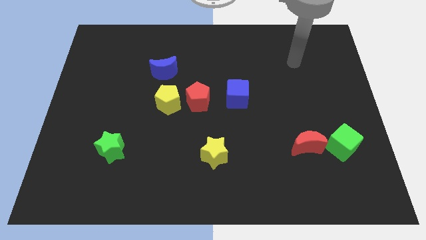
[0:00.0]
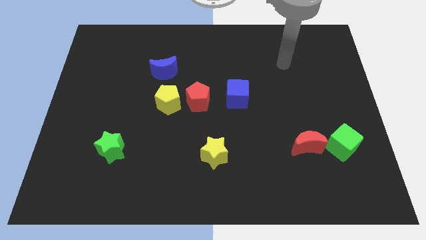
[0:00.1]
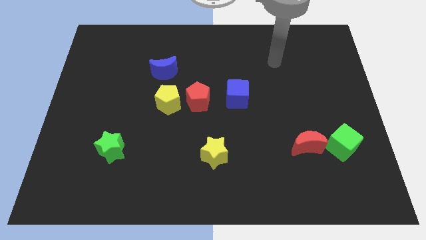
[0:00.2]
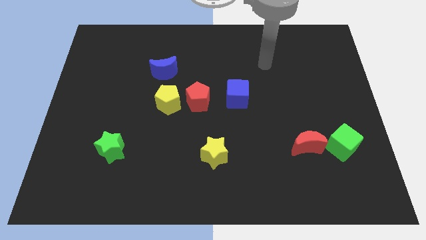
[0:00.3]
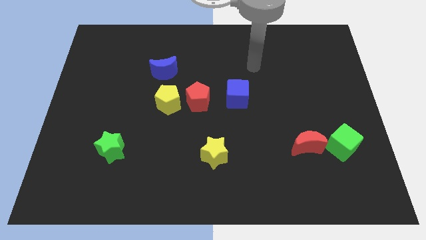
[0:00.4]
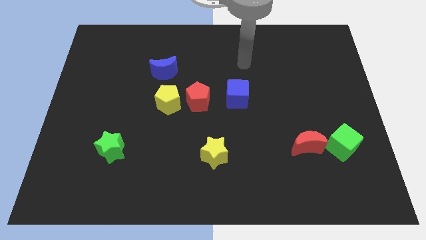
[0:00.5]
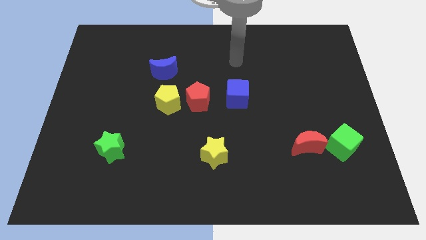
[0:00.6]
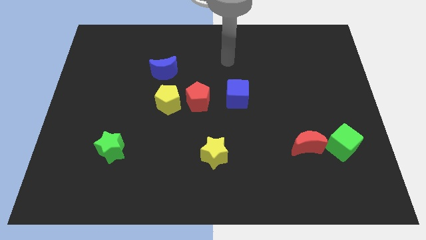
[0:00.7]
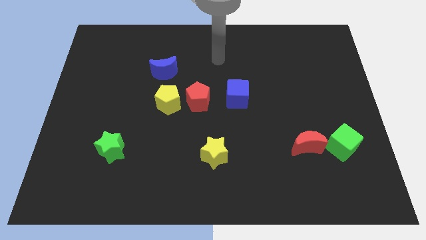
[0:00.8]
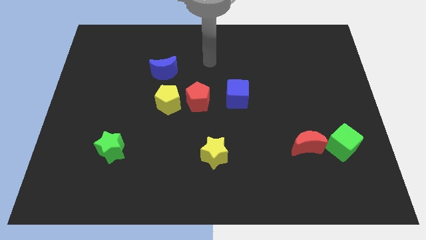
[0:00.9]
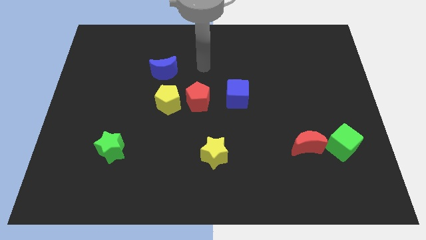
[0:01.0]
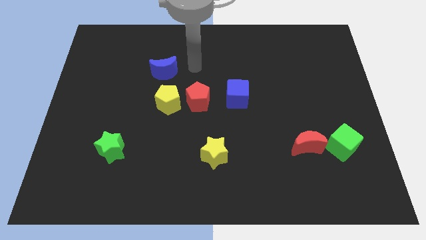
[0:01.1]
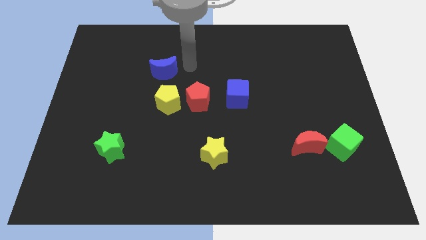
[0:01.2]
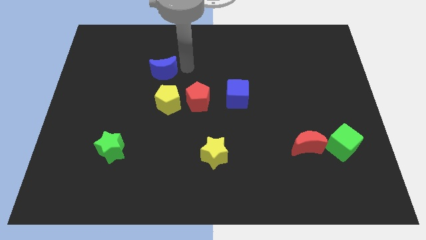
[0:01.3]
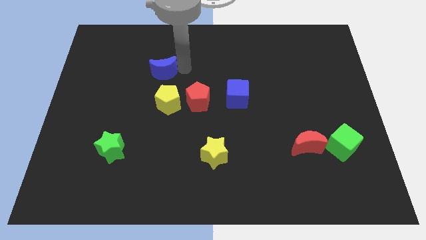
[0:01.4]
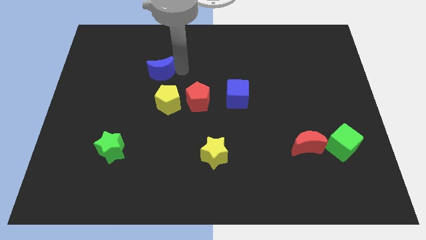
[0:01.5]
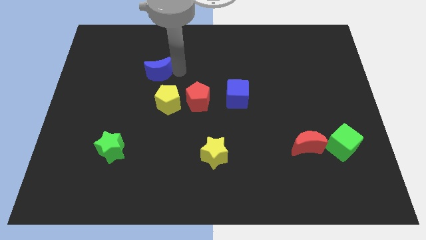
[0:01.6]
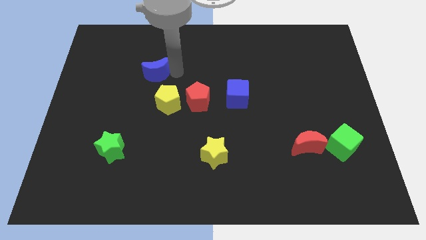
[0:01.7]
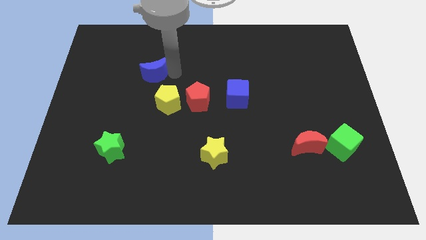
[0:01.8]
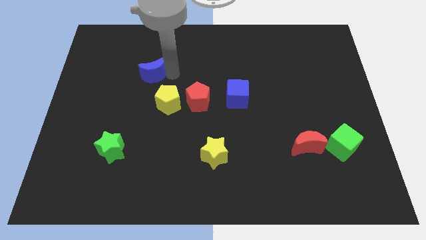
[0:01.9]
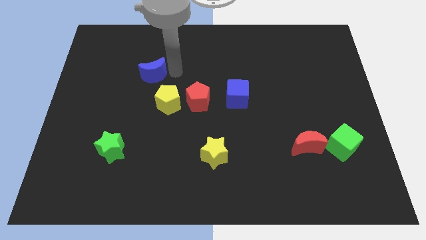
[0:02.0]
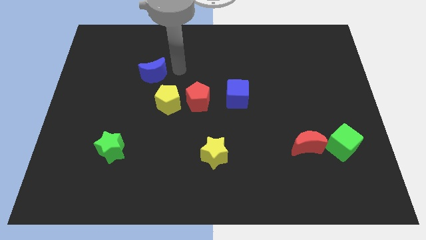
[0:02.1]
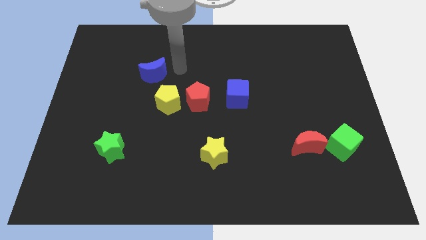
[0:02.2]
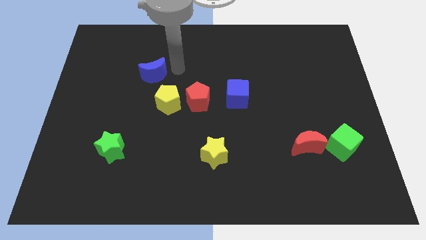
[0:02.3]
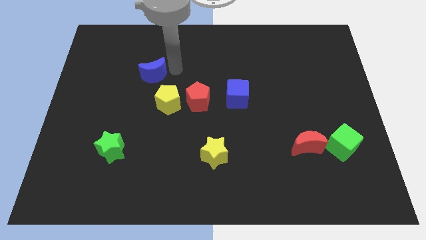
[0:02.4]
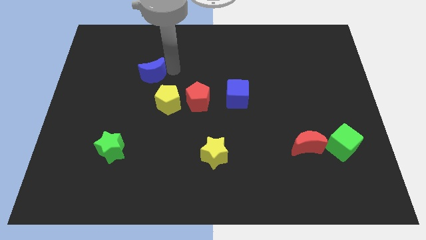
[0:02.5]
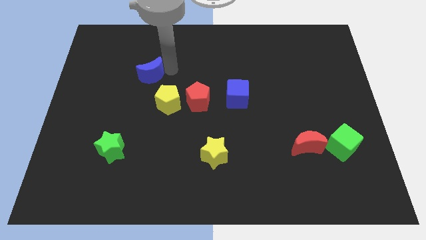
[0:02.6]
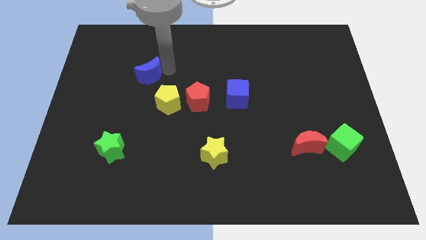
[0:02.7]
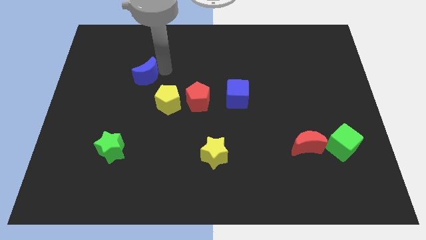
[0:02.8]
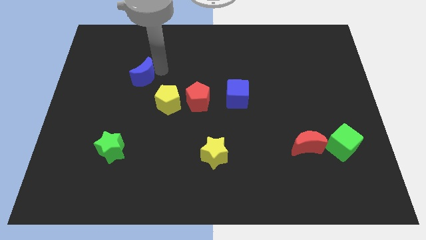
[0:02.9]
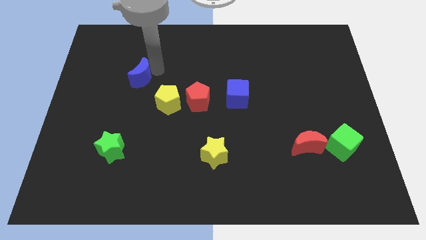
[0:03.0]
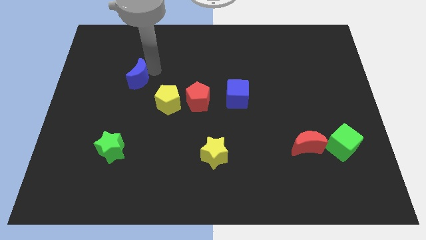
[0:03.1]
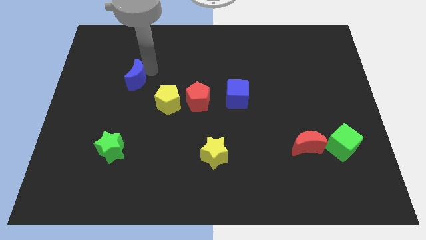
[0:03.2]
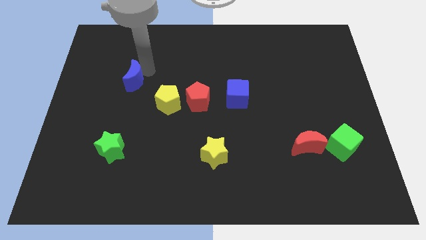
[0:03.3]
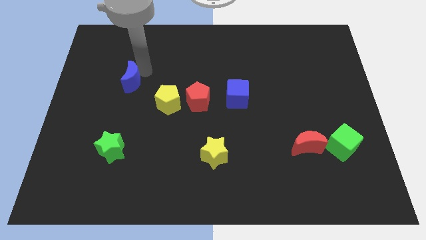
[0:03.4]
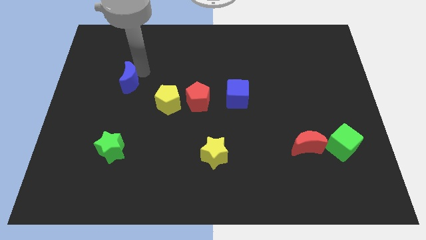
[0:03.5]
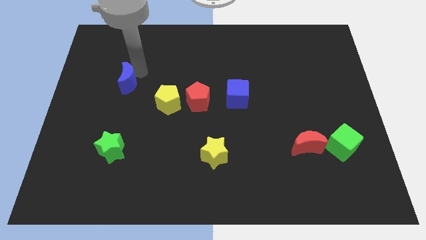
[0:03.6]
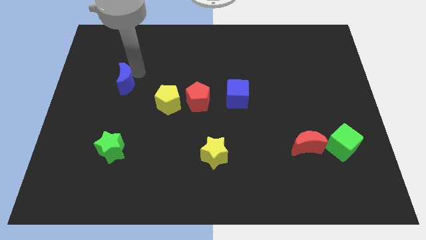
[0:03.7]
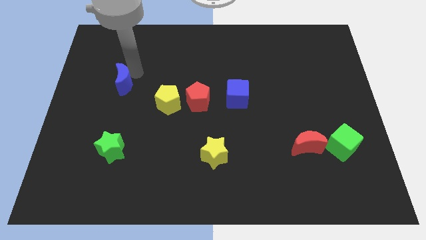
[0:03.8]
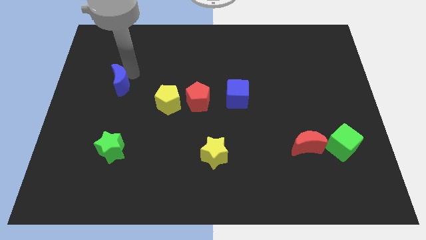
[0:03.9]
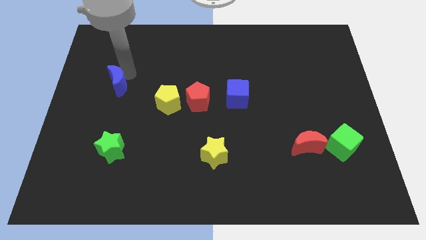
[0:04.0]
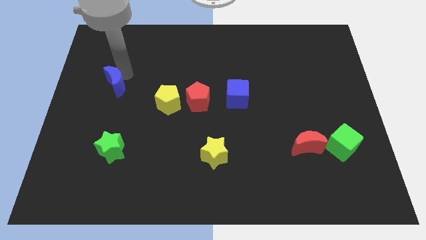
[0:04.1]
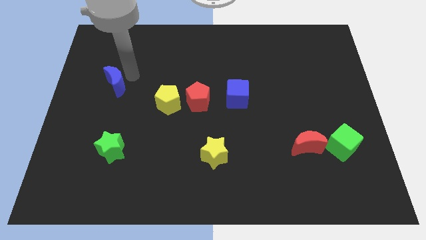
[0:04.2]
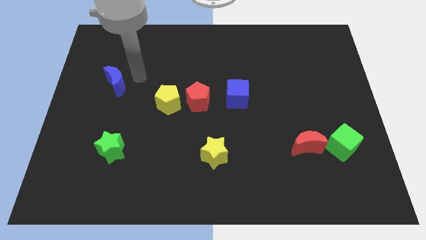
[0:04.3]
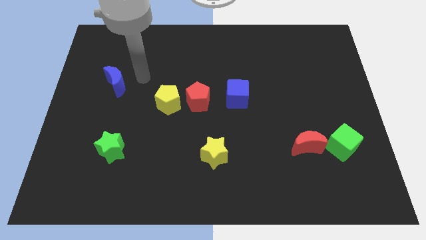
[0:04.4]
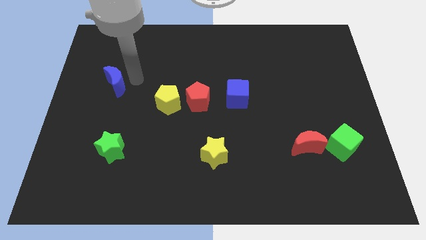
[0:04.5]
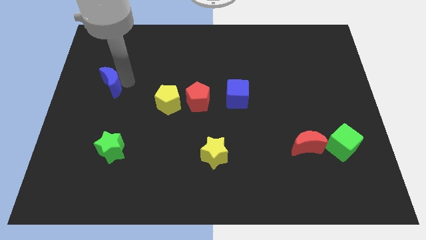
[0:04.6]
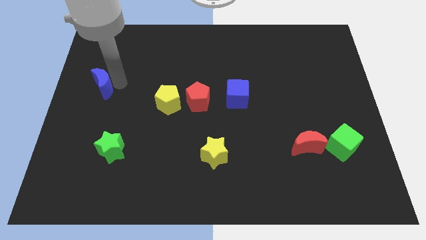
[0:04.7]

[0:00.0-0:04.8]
push the blue moon to the left side

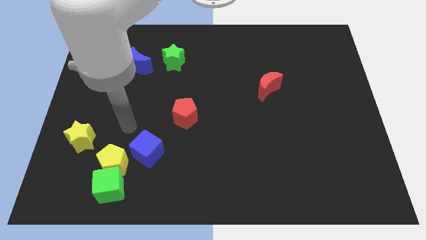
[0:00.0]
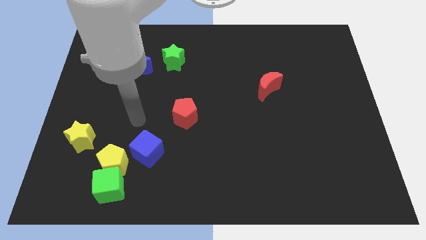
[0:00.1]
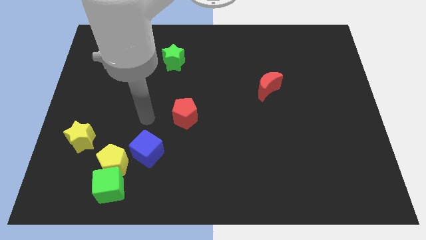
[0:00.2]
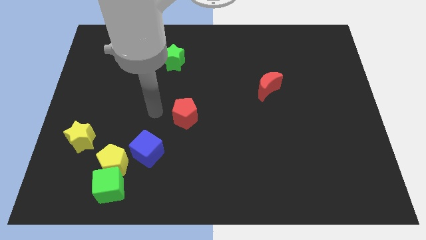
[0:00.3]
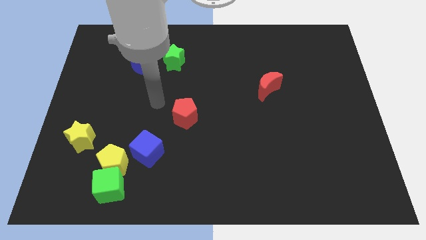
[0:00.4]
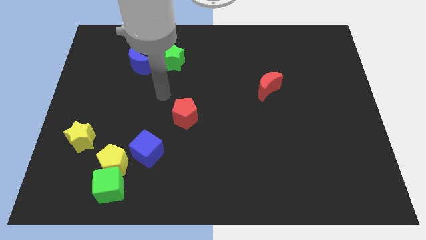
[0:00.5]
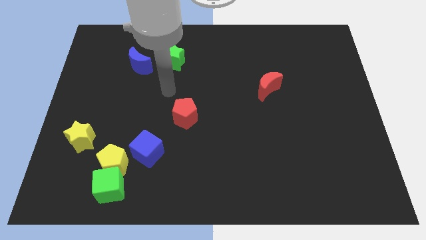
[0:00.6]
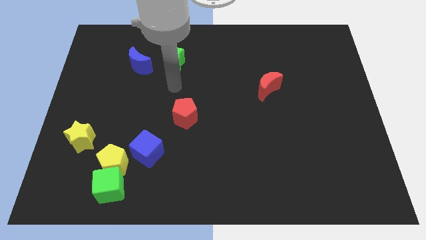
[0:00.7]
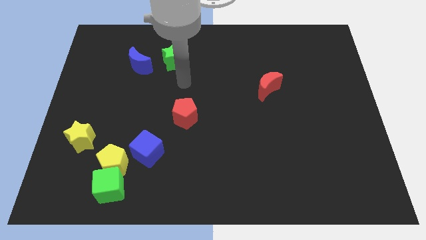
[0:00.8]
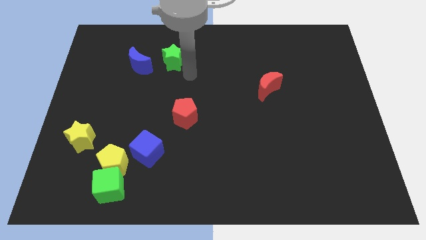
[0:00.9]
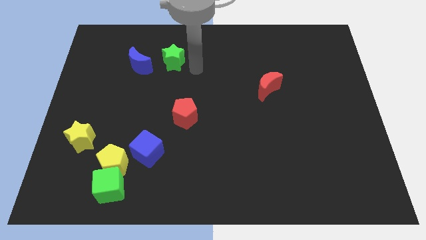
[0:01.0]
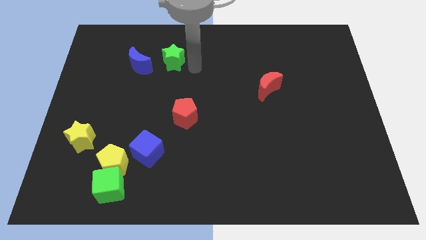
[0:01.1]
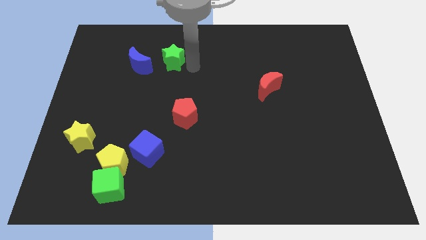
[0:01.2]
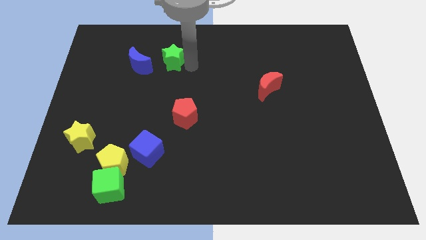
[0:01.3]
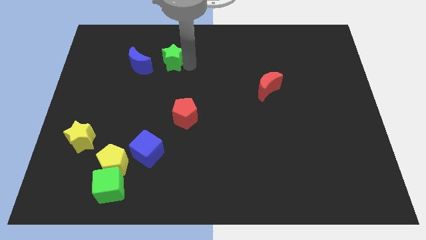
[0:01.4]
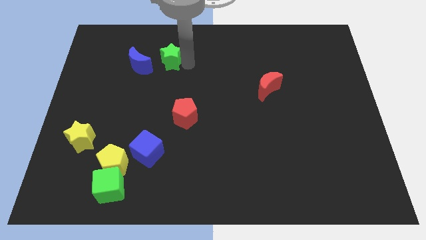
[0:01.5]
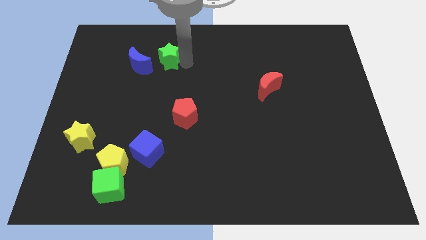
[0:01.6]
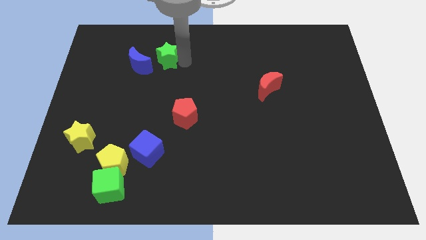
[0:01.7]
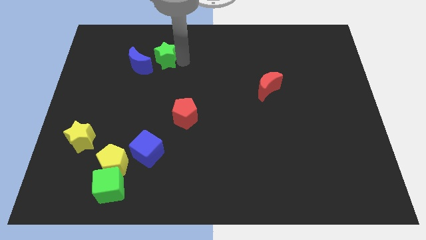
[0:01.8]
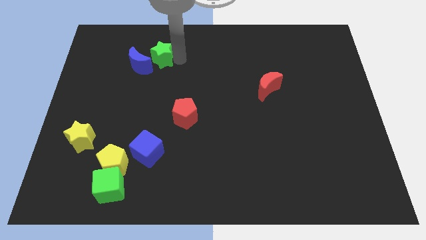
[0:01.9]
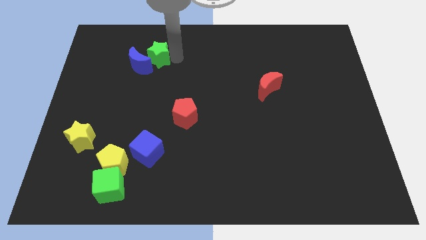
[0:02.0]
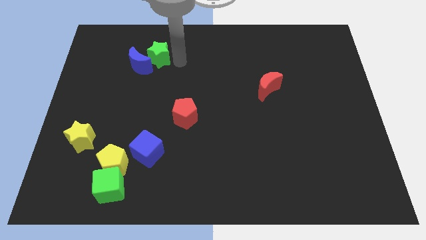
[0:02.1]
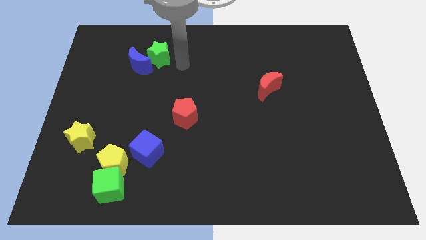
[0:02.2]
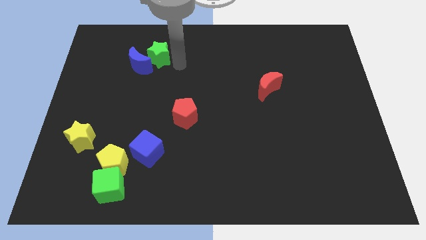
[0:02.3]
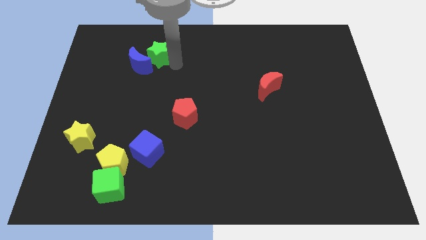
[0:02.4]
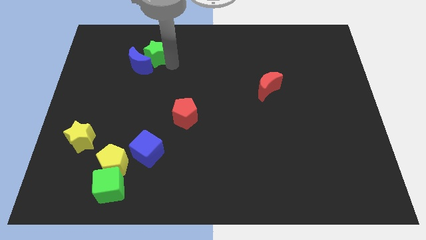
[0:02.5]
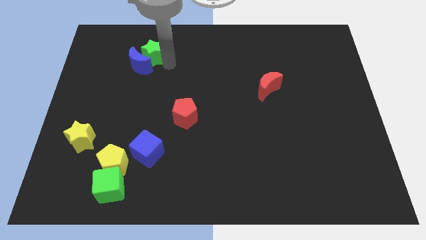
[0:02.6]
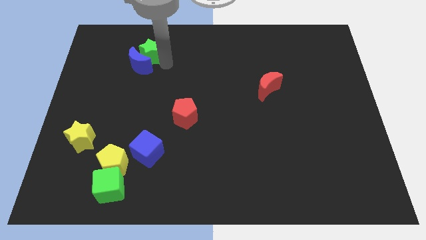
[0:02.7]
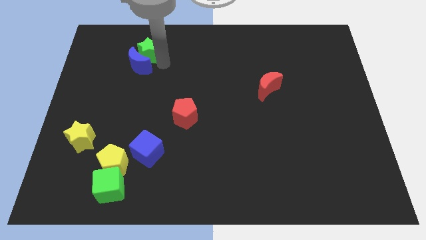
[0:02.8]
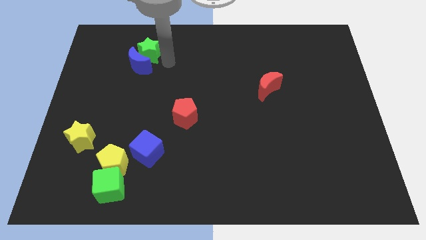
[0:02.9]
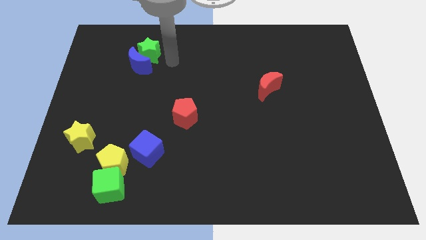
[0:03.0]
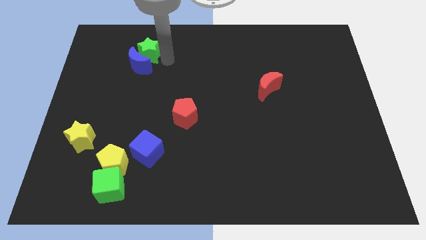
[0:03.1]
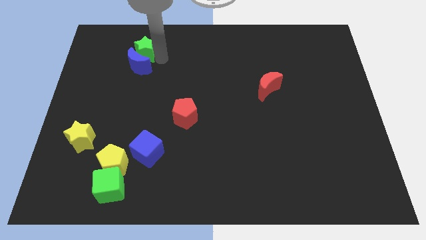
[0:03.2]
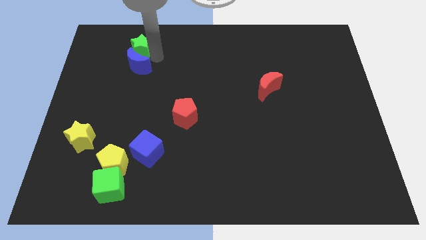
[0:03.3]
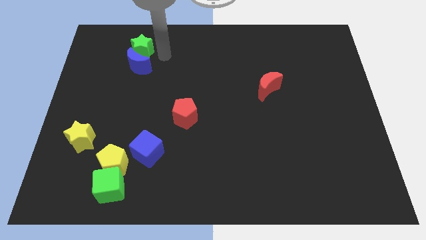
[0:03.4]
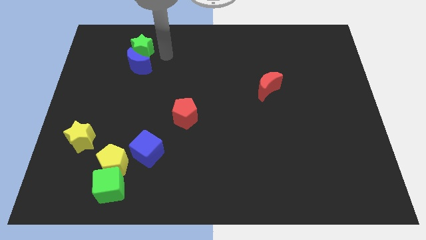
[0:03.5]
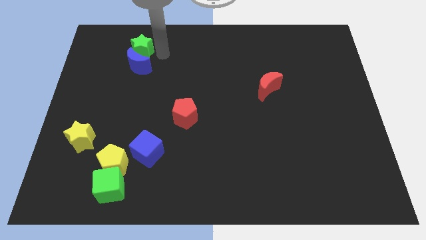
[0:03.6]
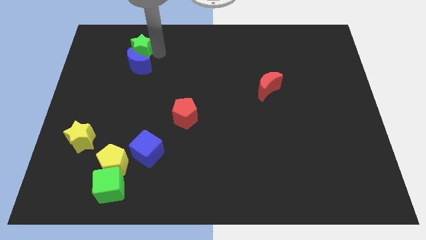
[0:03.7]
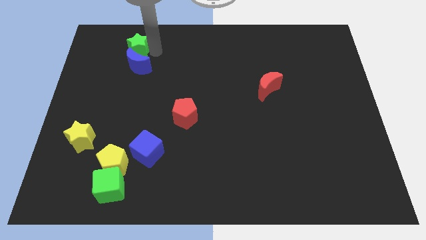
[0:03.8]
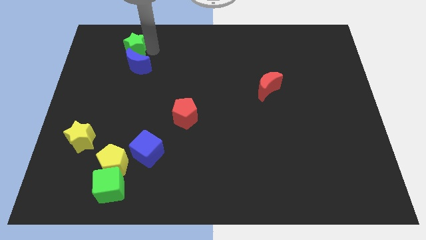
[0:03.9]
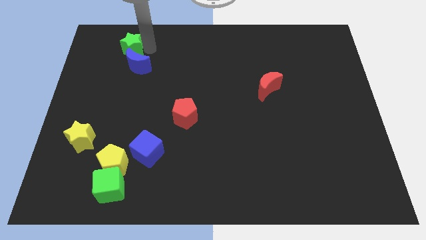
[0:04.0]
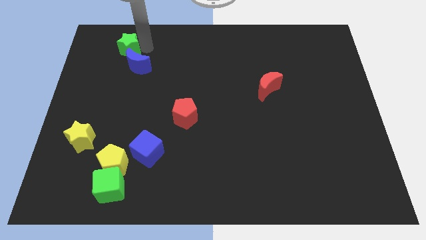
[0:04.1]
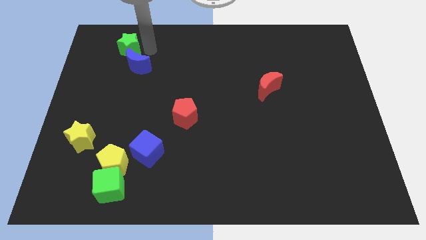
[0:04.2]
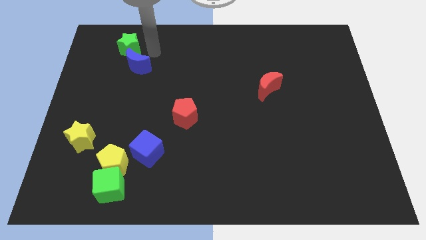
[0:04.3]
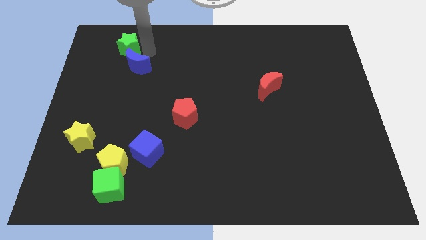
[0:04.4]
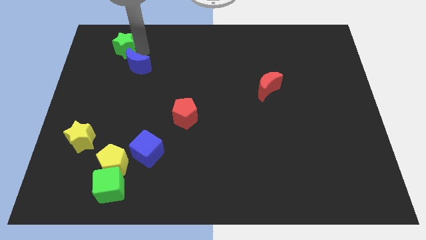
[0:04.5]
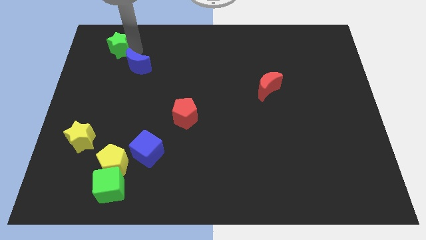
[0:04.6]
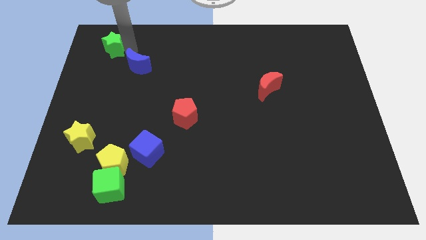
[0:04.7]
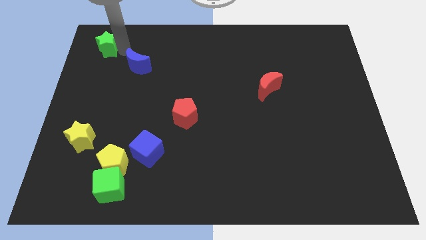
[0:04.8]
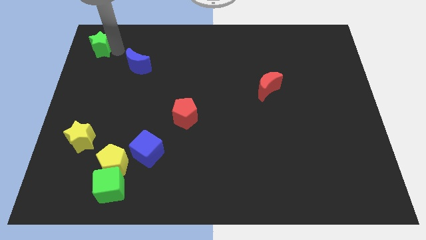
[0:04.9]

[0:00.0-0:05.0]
move the green star to the upper left corner
